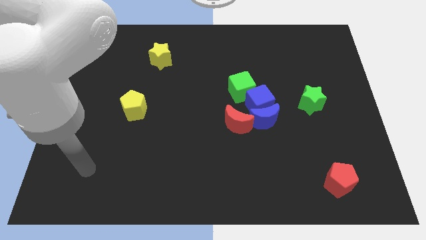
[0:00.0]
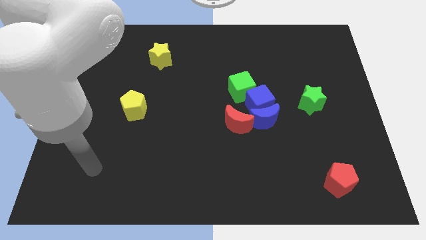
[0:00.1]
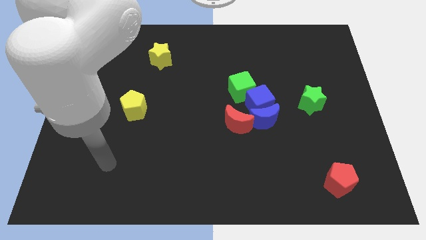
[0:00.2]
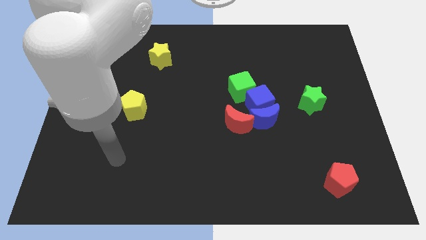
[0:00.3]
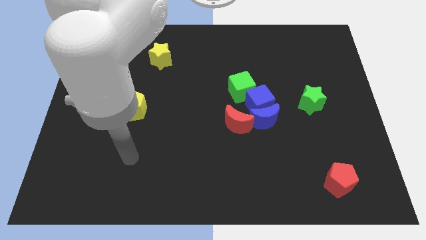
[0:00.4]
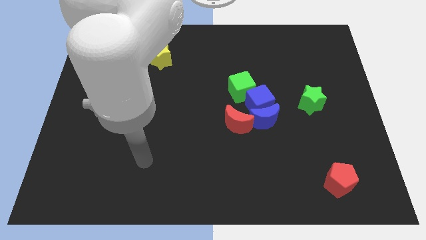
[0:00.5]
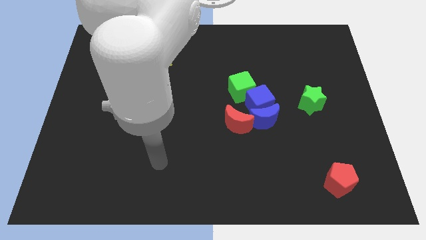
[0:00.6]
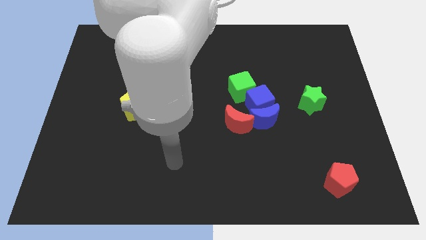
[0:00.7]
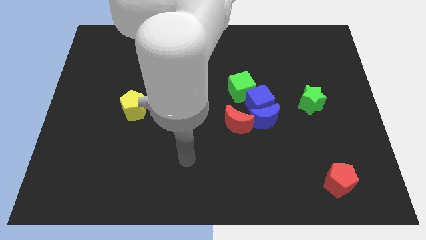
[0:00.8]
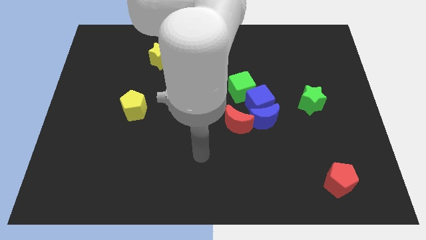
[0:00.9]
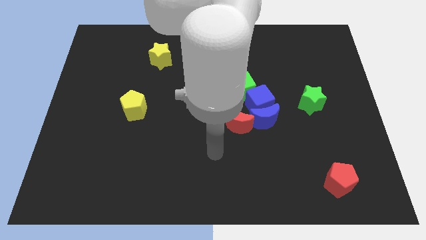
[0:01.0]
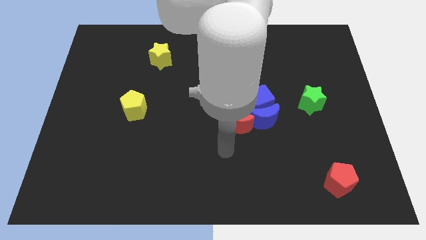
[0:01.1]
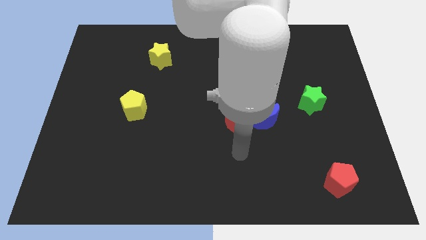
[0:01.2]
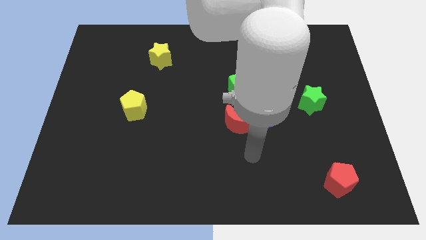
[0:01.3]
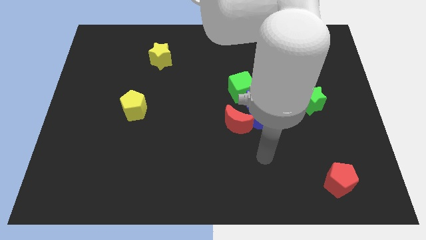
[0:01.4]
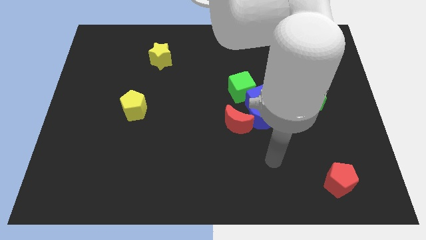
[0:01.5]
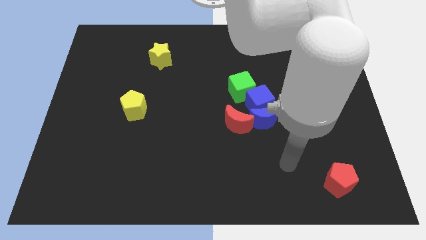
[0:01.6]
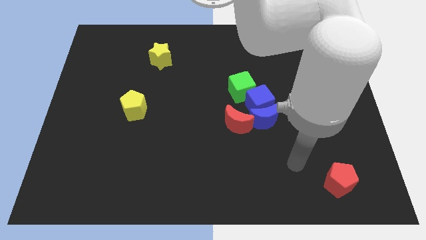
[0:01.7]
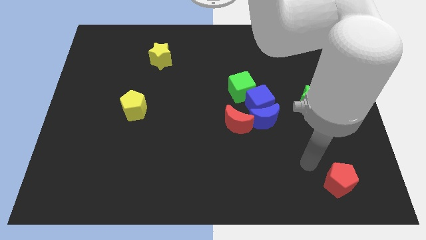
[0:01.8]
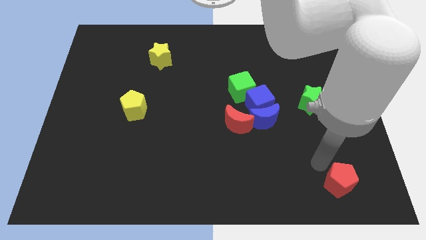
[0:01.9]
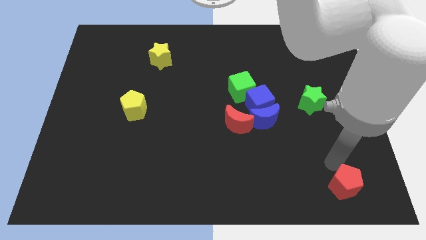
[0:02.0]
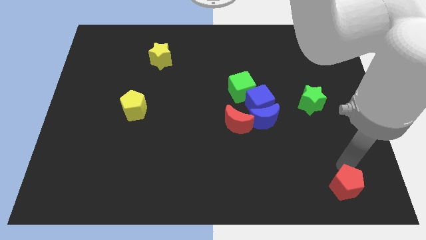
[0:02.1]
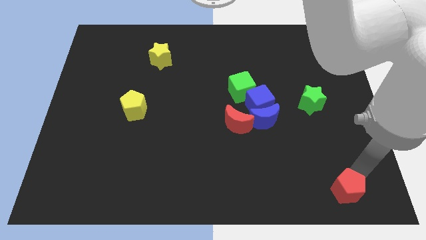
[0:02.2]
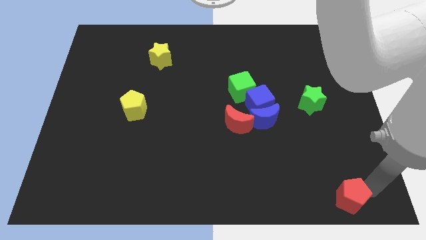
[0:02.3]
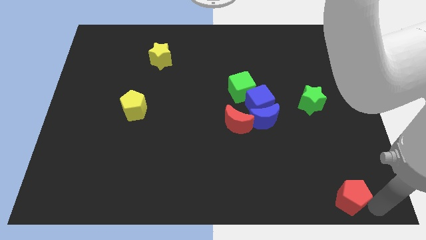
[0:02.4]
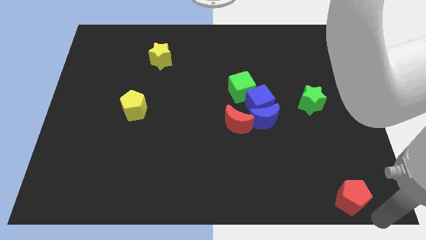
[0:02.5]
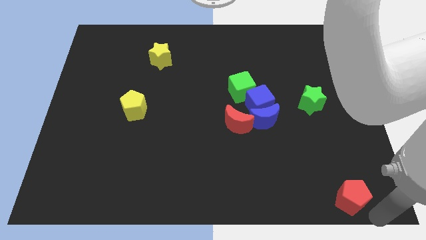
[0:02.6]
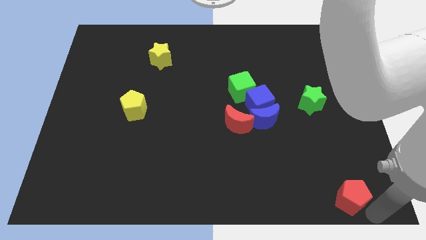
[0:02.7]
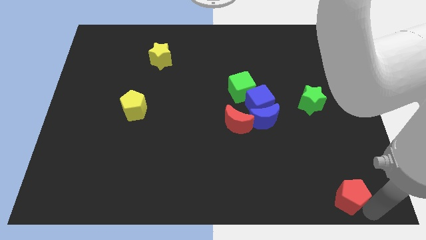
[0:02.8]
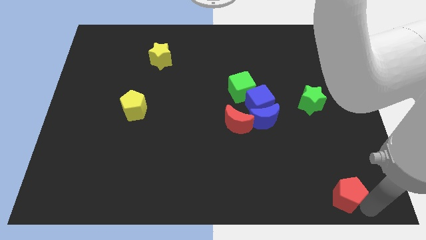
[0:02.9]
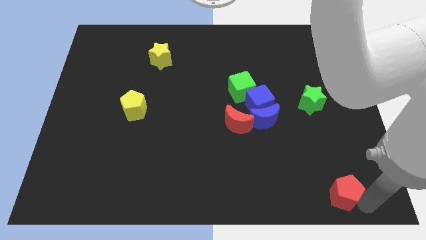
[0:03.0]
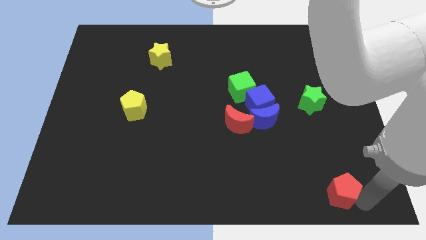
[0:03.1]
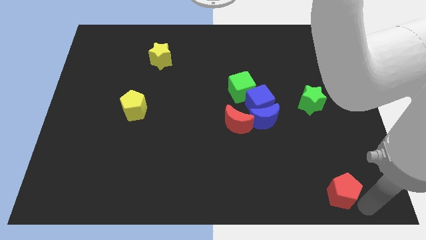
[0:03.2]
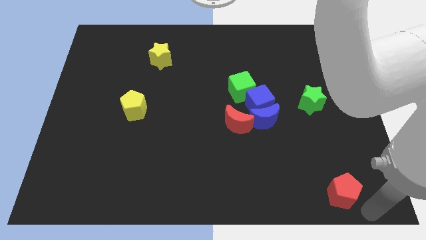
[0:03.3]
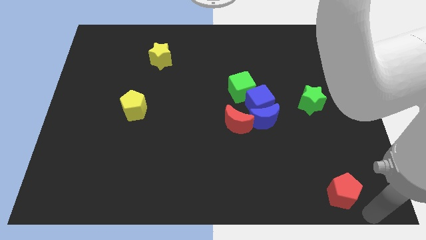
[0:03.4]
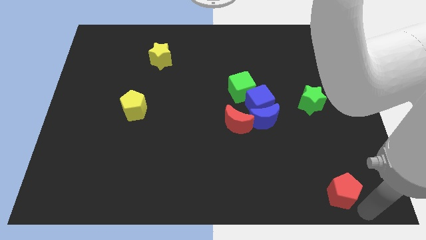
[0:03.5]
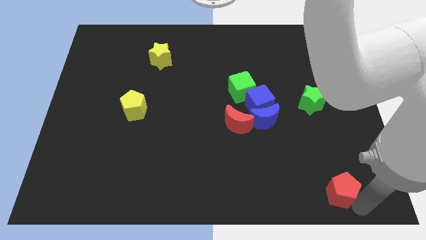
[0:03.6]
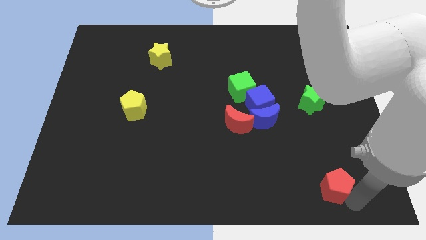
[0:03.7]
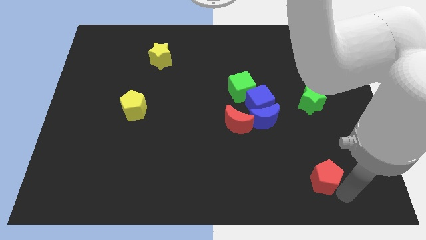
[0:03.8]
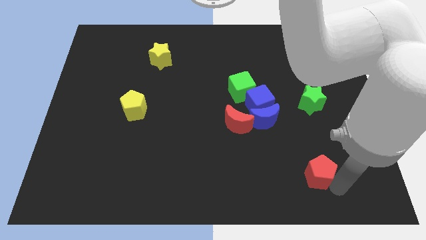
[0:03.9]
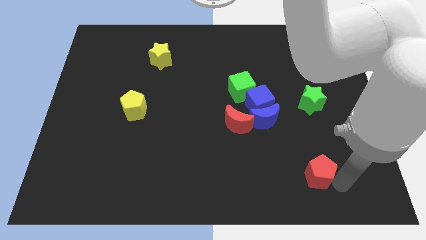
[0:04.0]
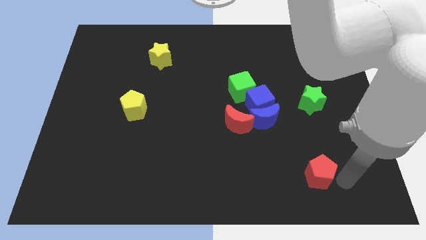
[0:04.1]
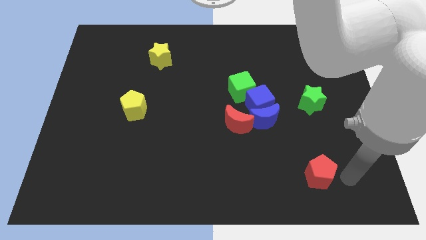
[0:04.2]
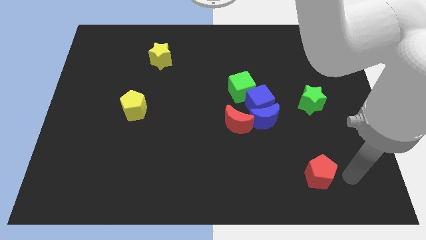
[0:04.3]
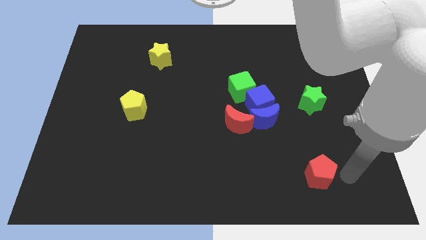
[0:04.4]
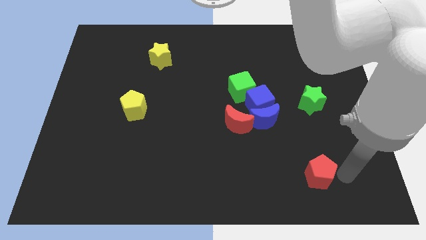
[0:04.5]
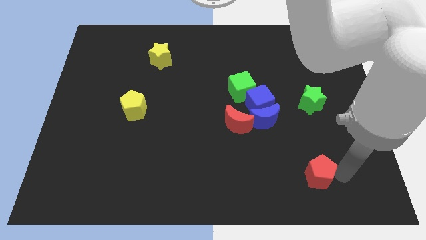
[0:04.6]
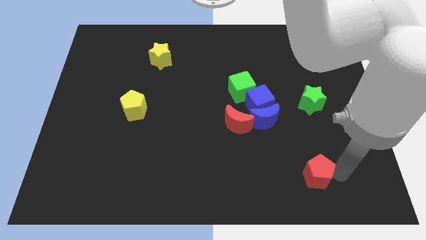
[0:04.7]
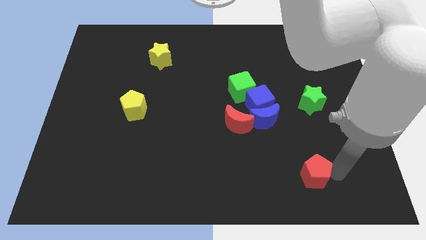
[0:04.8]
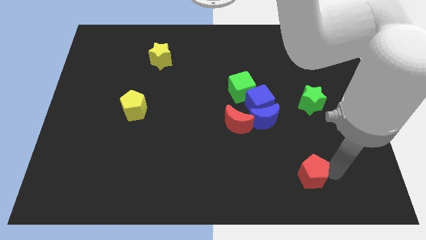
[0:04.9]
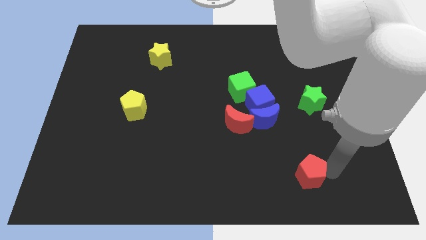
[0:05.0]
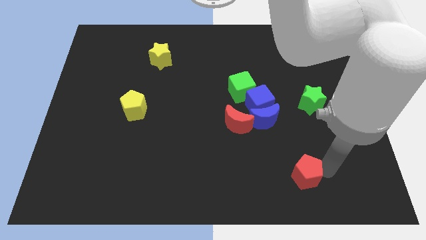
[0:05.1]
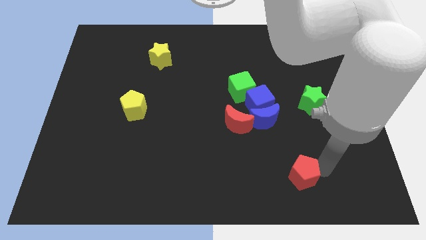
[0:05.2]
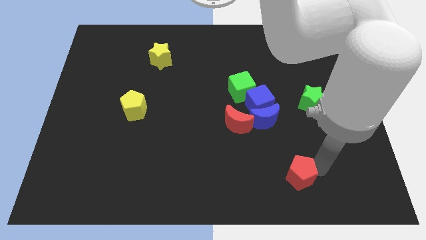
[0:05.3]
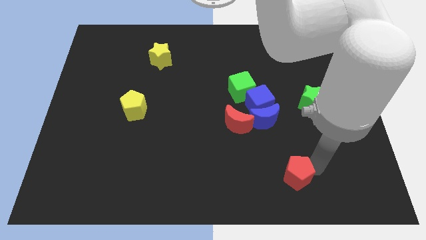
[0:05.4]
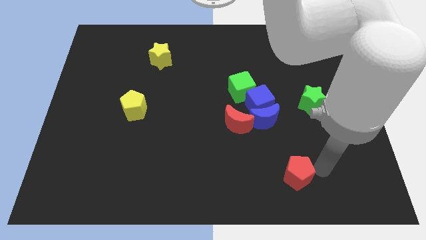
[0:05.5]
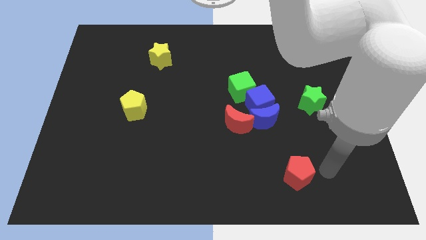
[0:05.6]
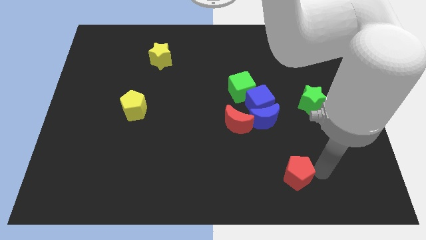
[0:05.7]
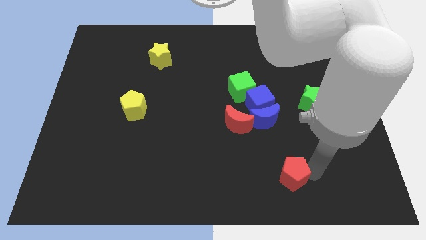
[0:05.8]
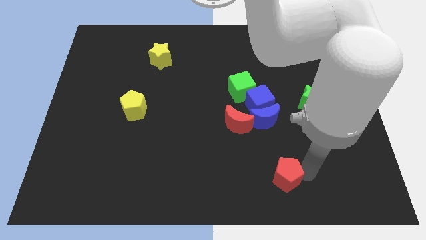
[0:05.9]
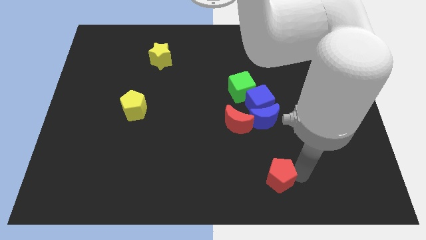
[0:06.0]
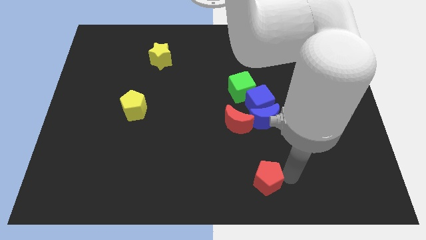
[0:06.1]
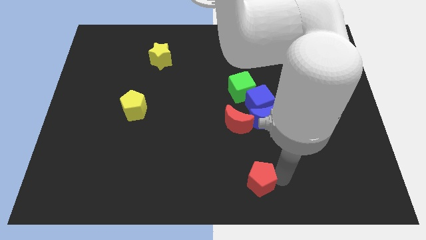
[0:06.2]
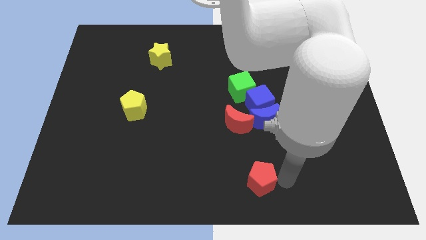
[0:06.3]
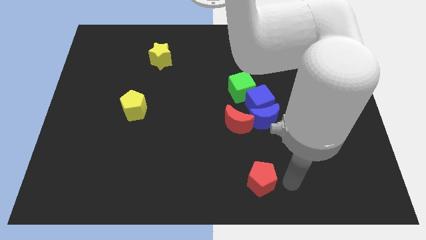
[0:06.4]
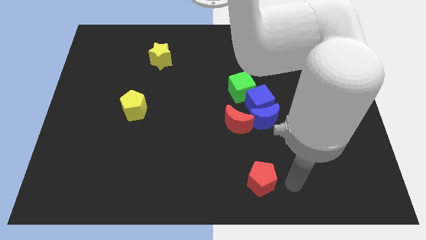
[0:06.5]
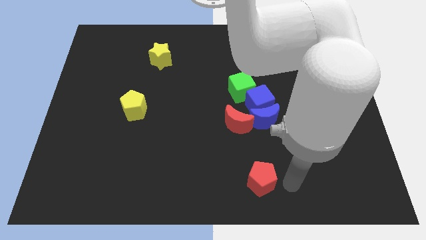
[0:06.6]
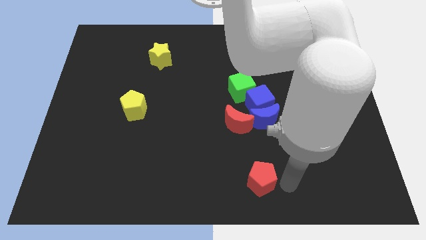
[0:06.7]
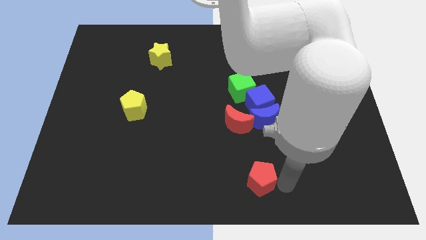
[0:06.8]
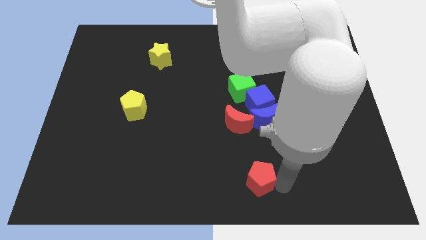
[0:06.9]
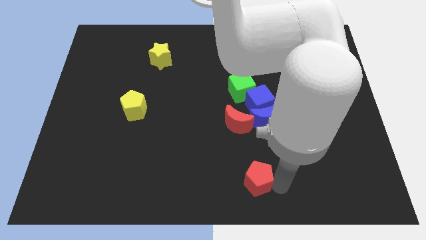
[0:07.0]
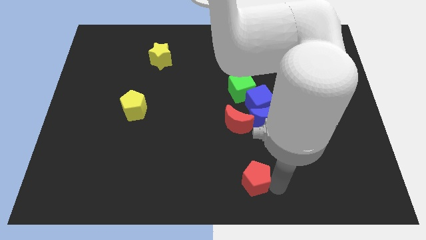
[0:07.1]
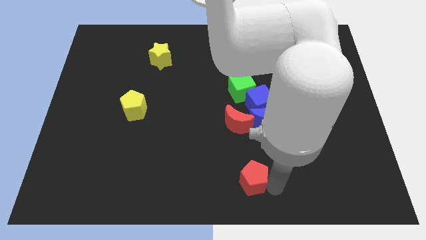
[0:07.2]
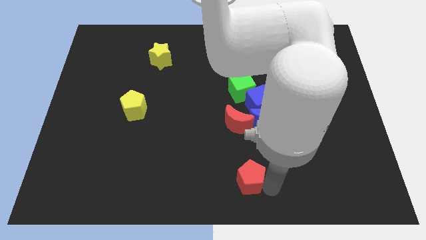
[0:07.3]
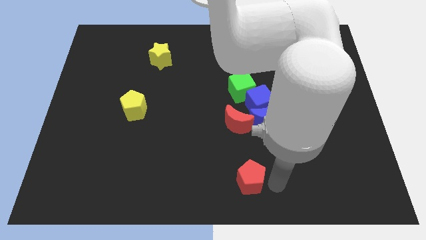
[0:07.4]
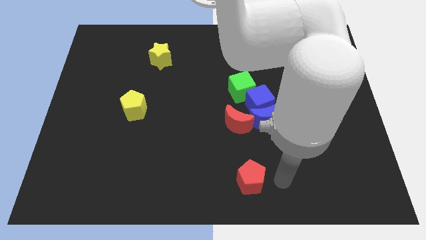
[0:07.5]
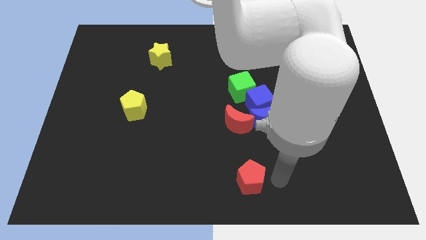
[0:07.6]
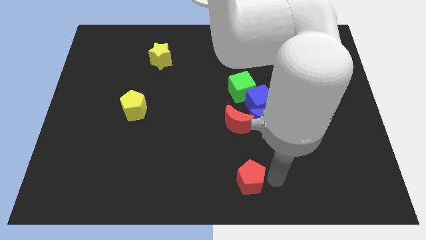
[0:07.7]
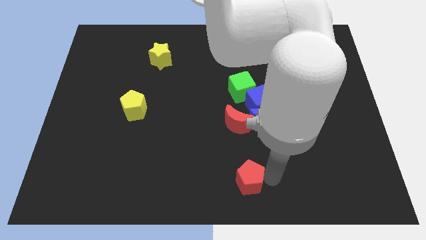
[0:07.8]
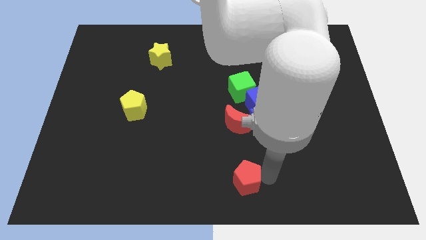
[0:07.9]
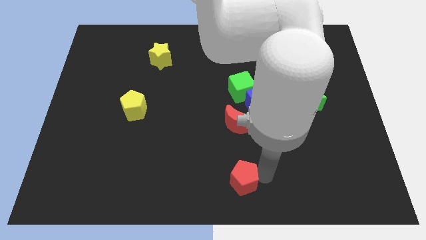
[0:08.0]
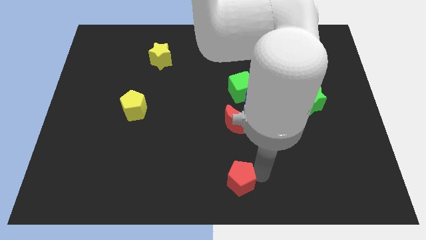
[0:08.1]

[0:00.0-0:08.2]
move the red pentagon left

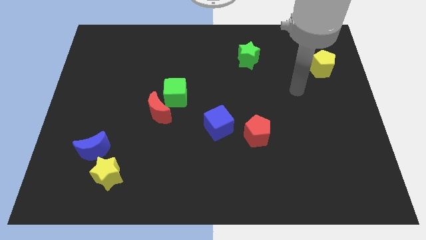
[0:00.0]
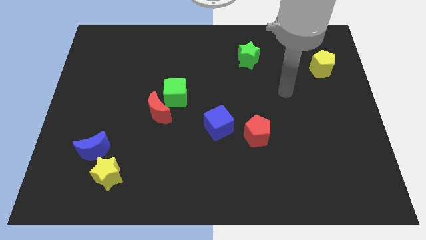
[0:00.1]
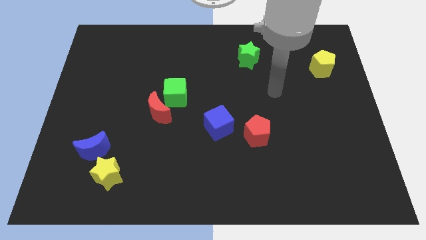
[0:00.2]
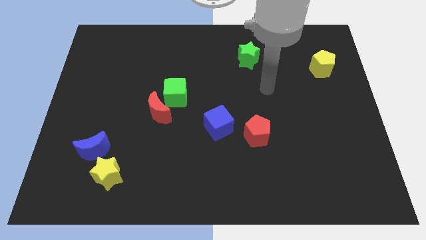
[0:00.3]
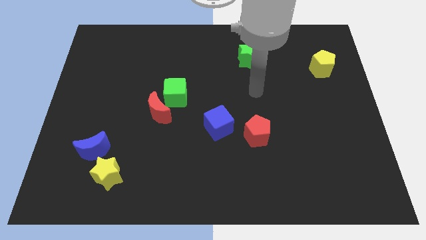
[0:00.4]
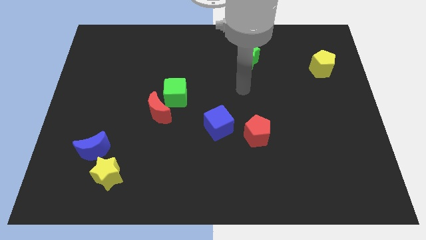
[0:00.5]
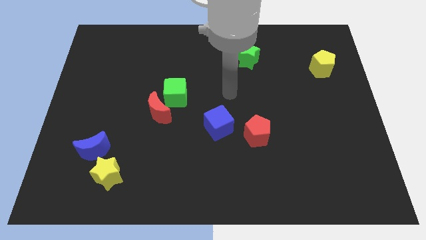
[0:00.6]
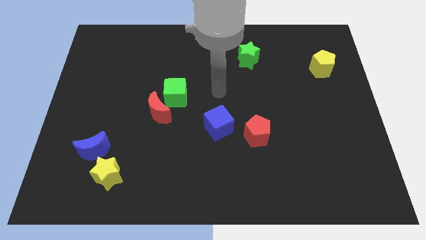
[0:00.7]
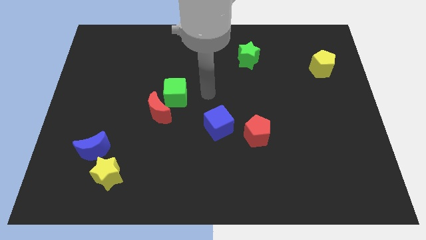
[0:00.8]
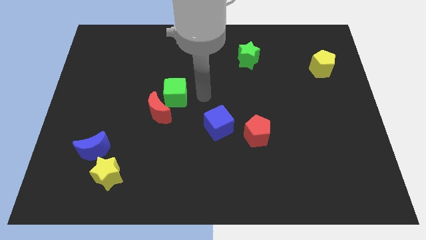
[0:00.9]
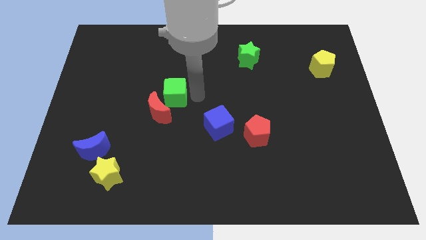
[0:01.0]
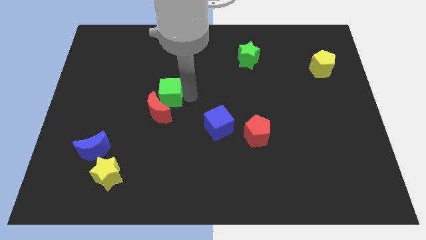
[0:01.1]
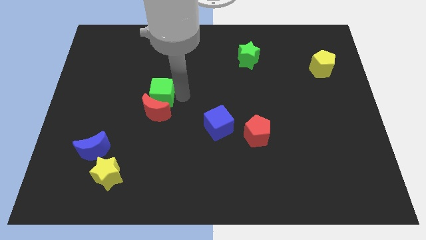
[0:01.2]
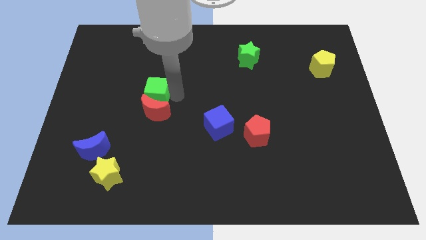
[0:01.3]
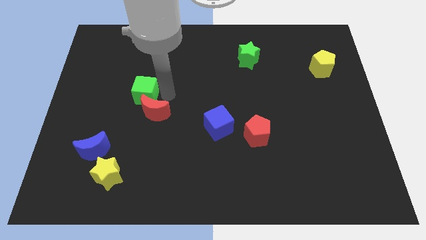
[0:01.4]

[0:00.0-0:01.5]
slide the green cube a little bit to the left
